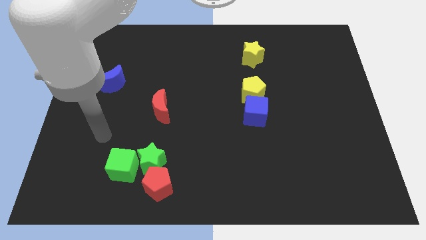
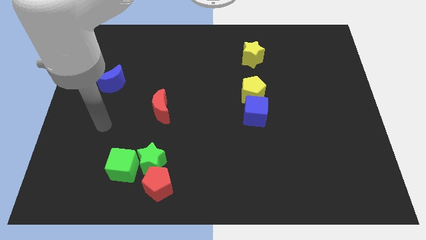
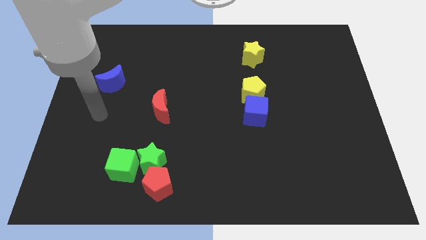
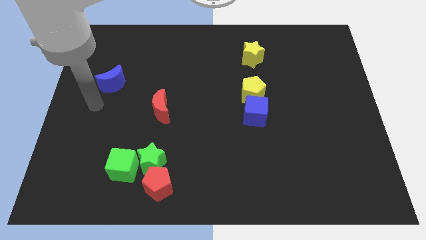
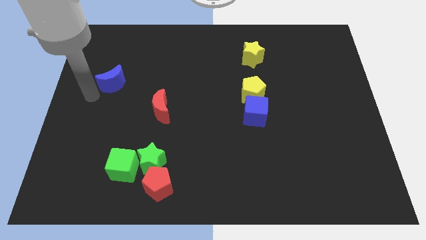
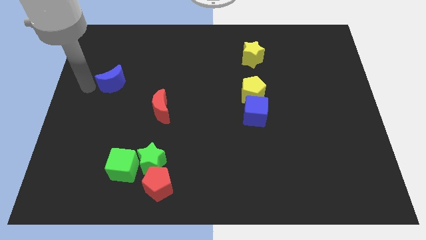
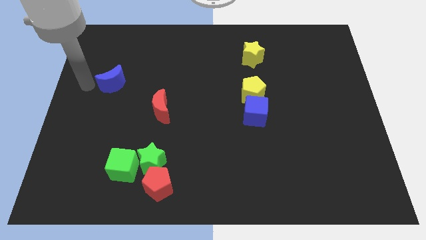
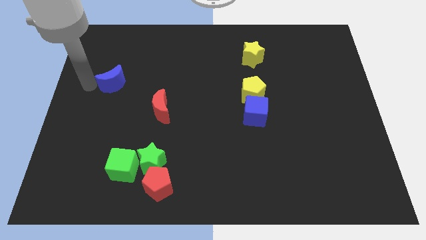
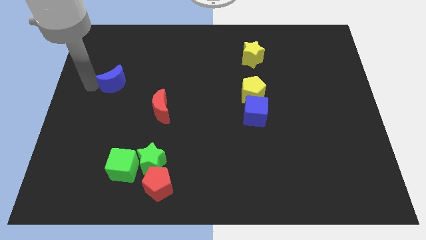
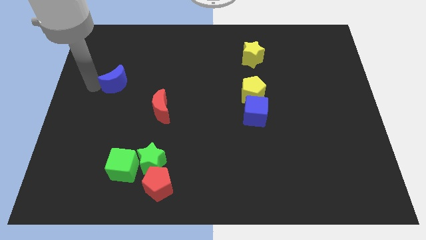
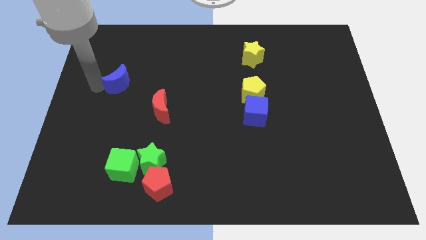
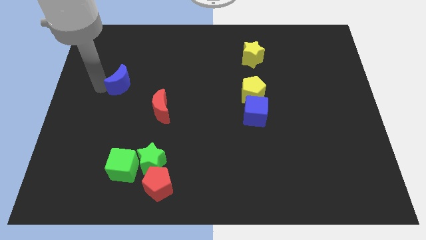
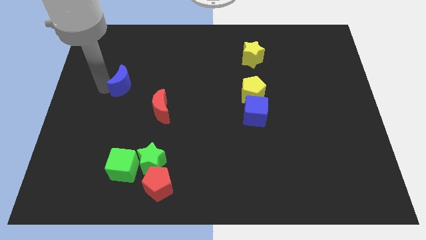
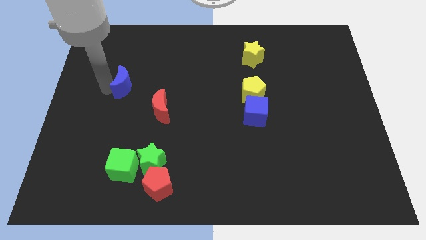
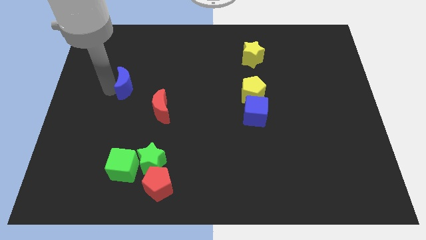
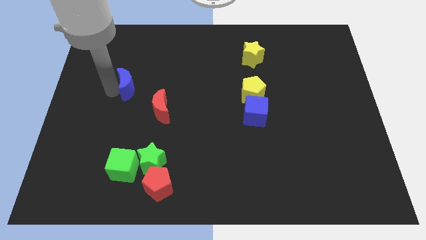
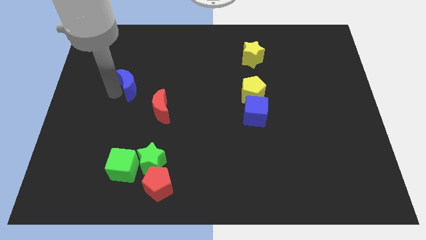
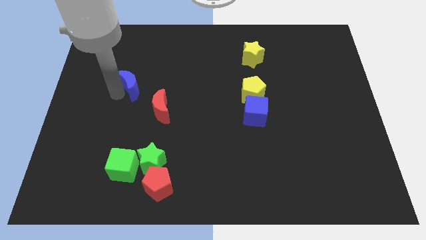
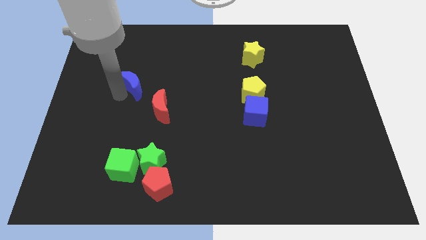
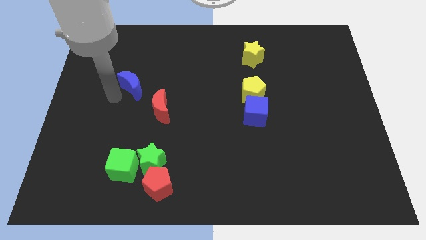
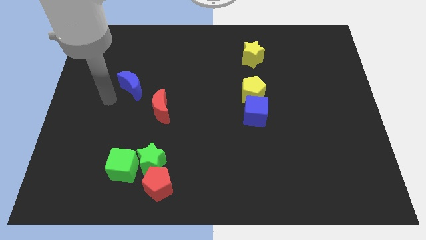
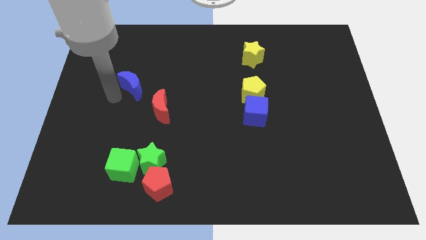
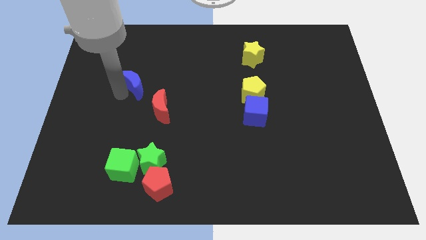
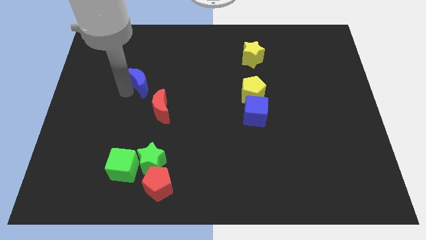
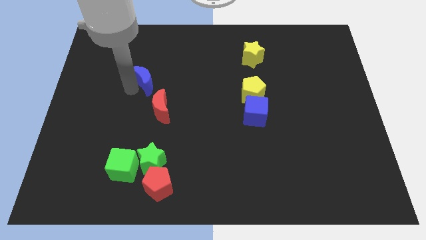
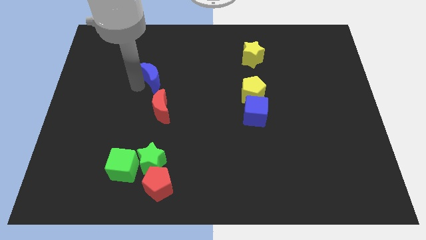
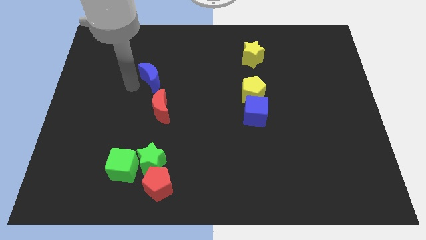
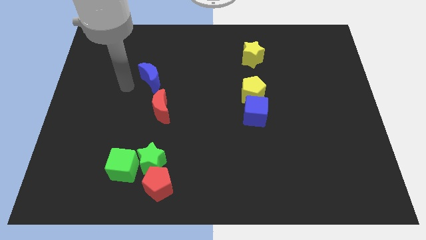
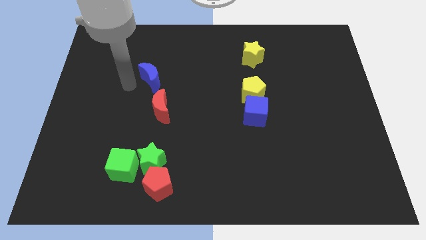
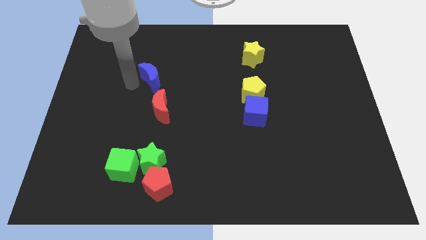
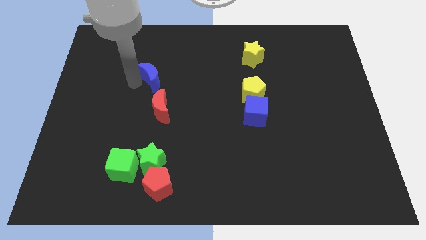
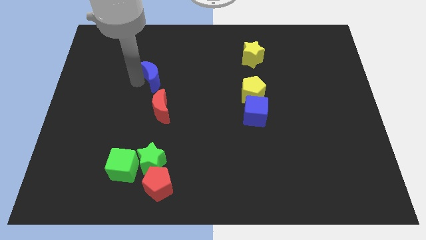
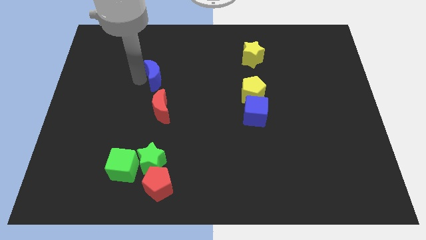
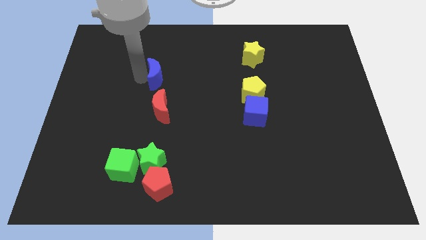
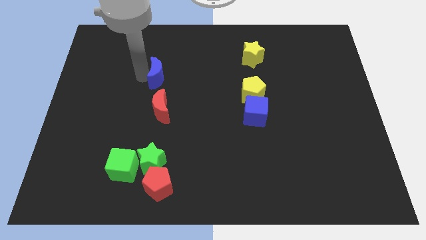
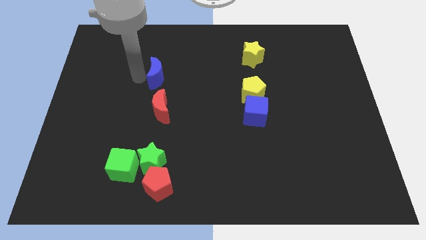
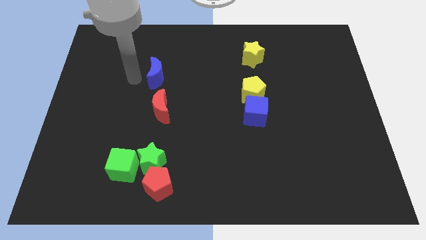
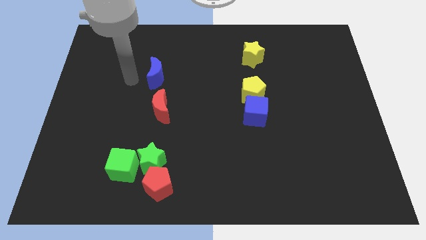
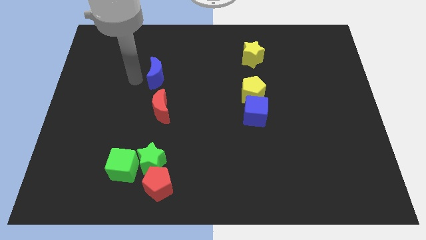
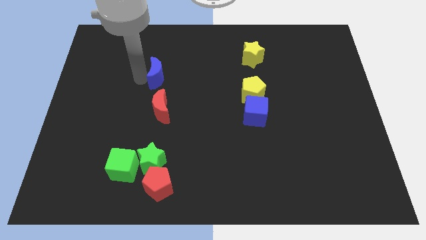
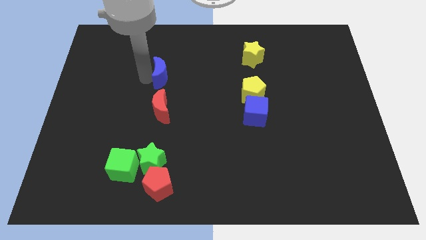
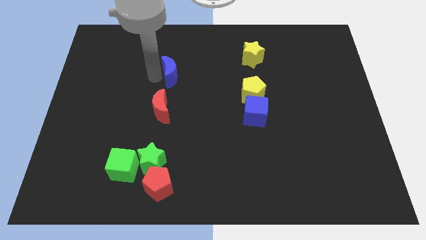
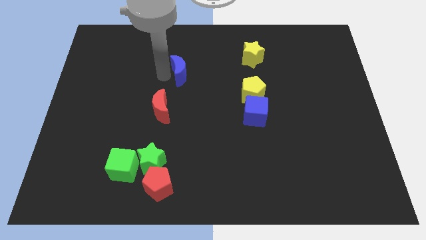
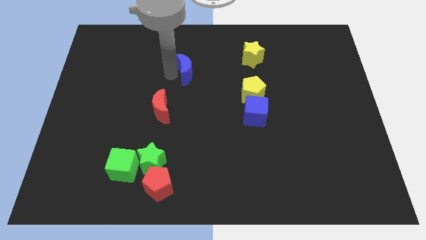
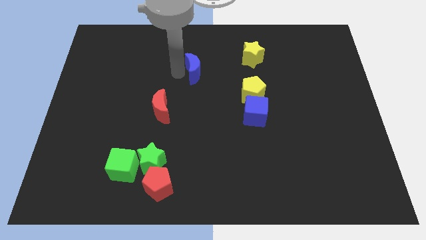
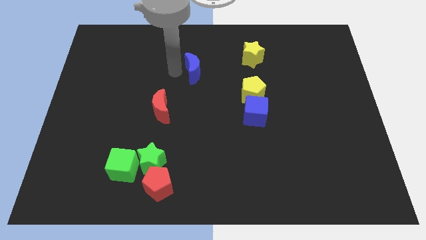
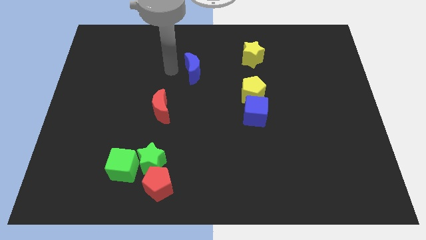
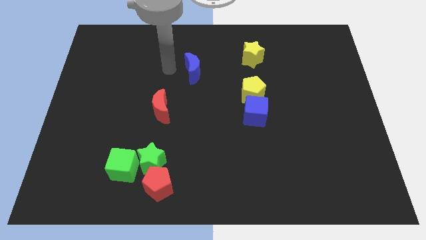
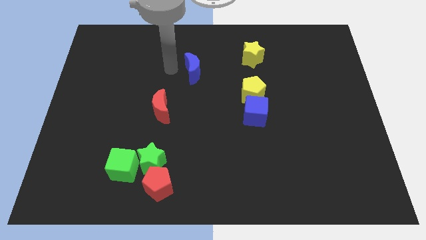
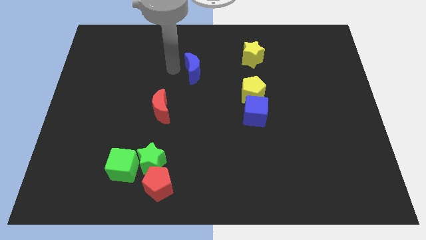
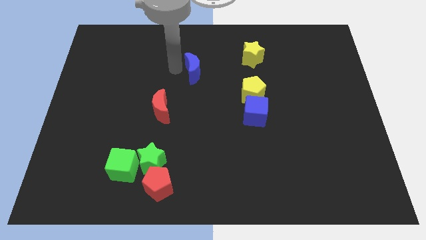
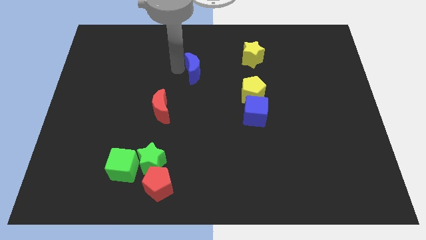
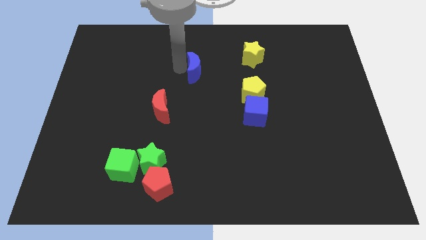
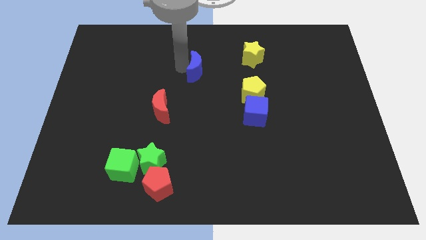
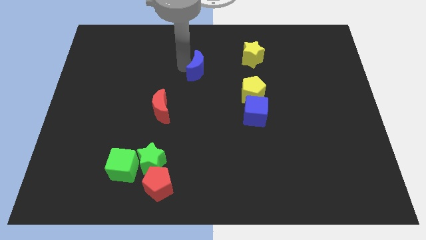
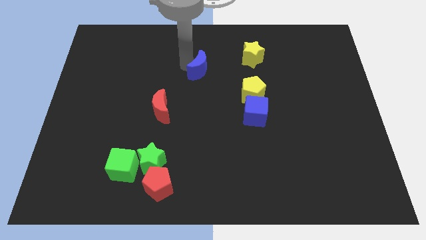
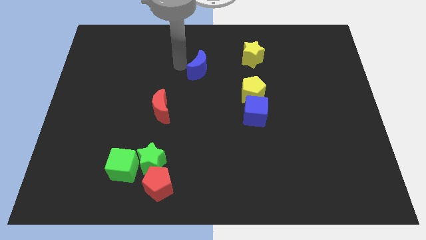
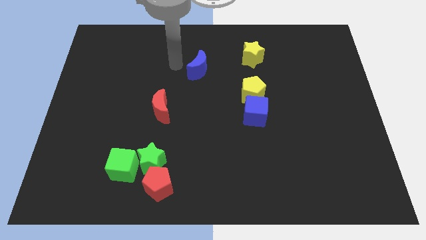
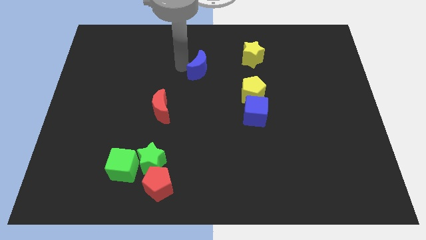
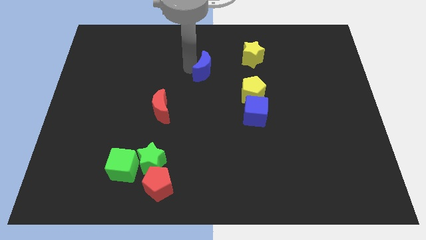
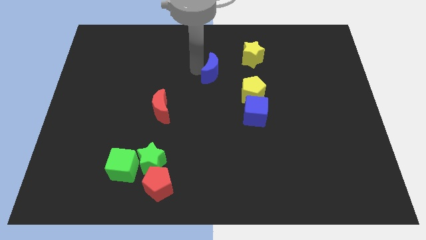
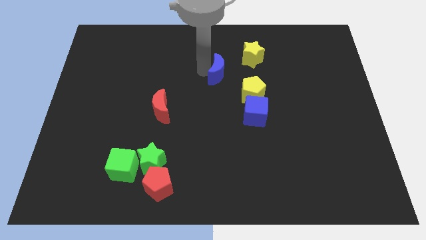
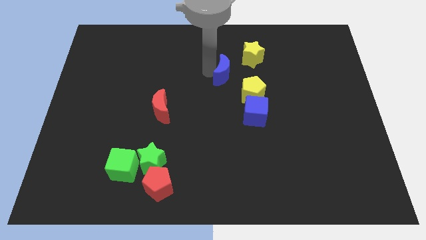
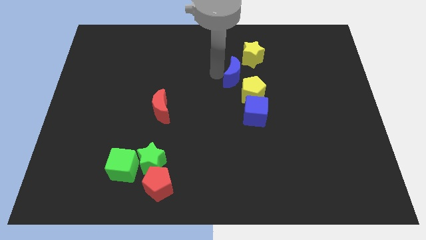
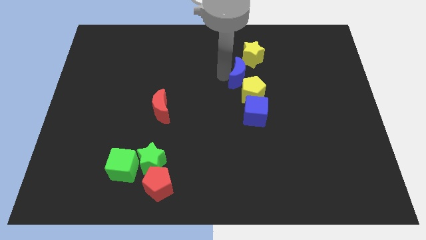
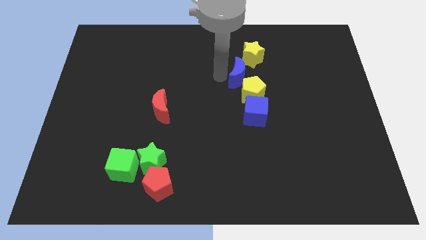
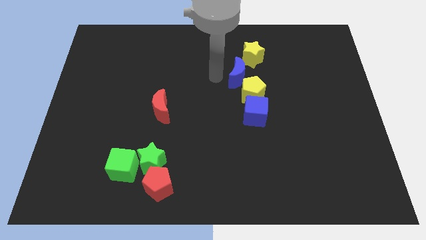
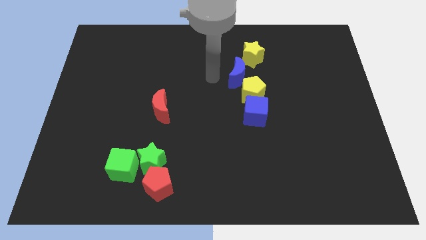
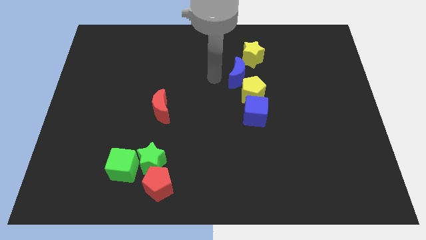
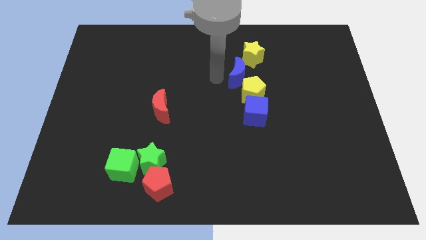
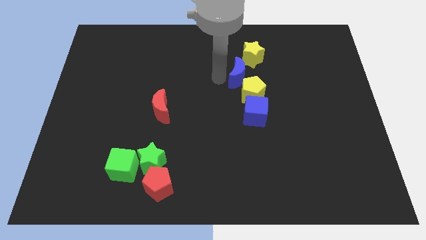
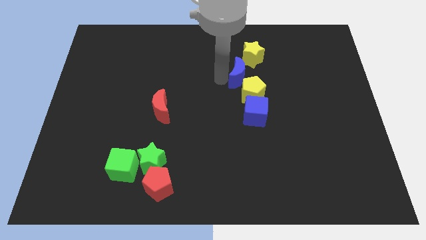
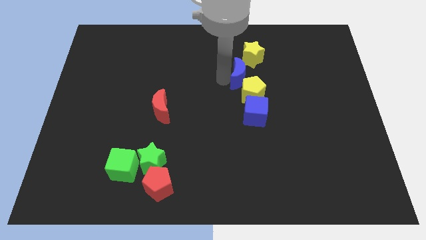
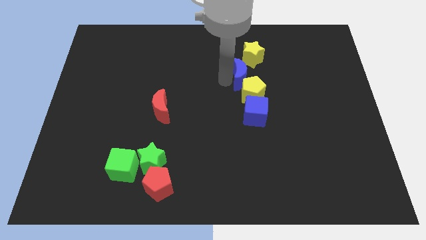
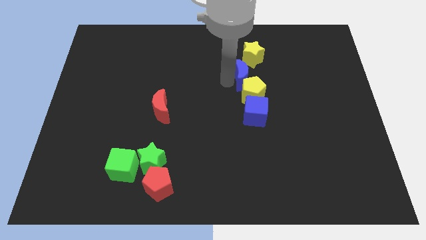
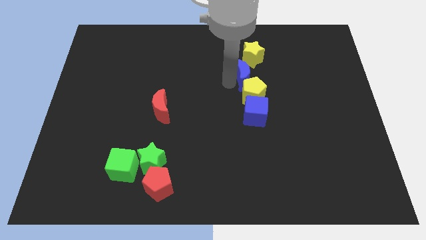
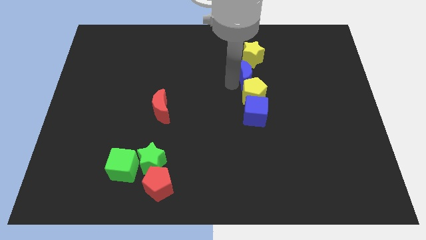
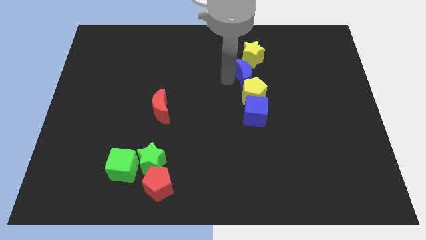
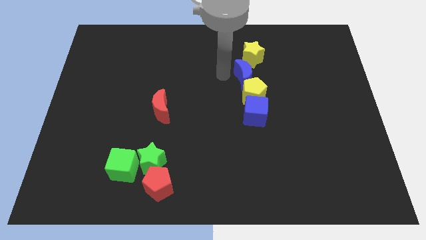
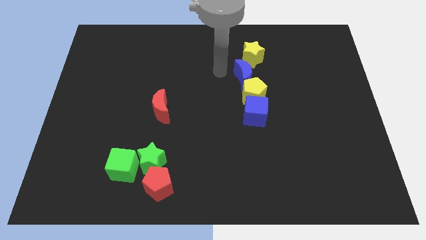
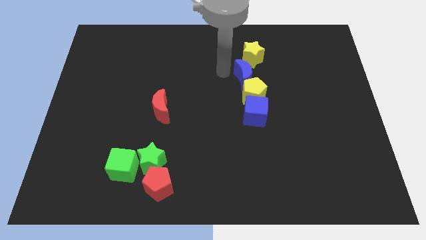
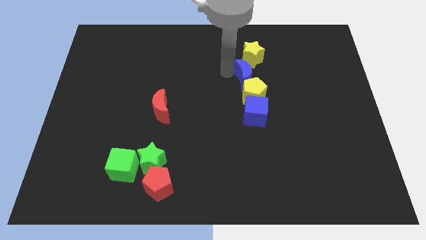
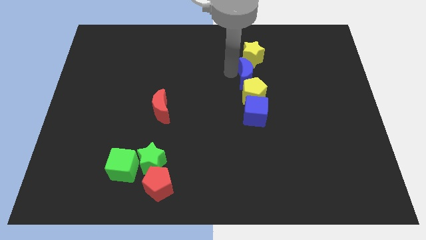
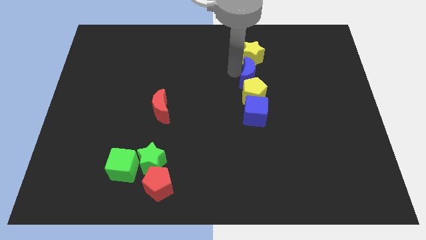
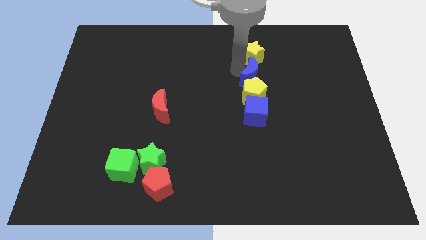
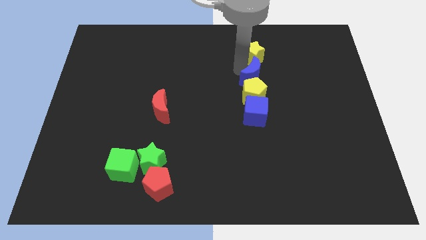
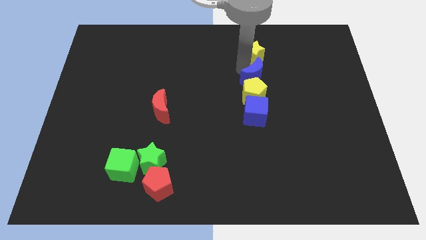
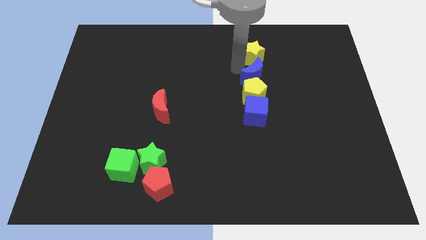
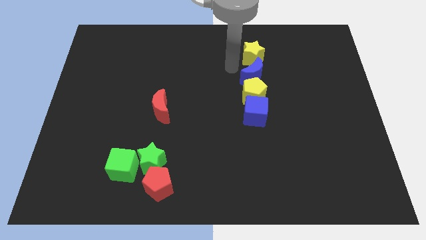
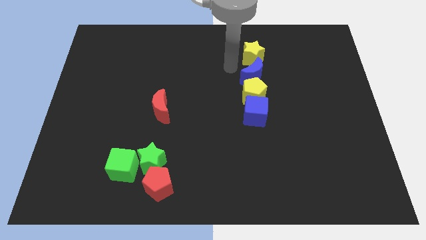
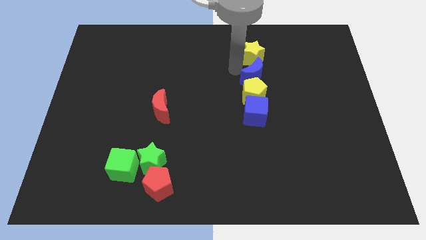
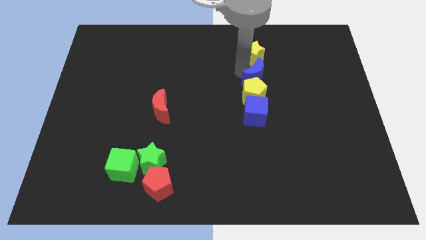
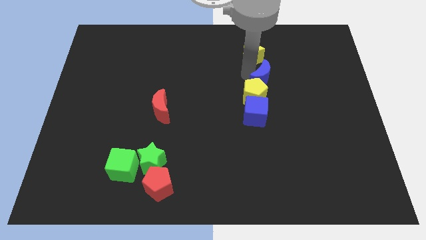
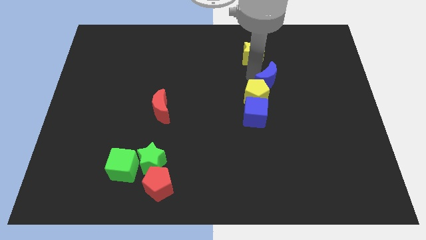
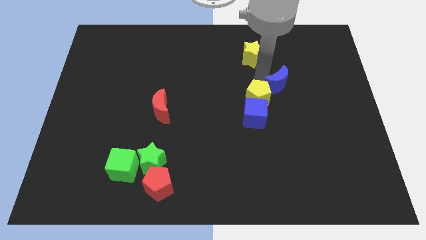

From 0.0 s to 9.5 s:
slide the blue moon to the right side of the yellow pentagon
